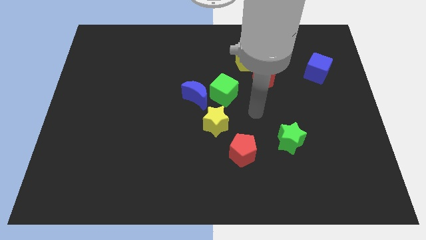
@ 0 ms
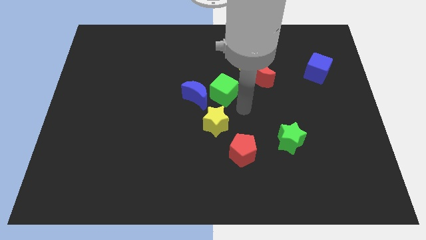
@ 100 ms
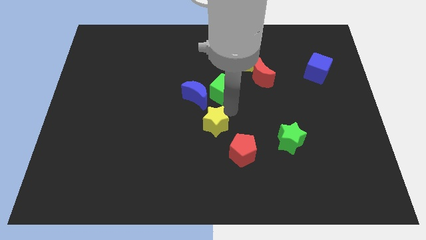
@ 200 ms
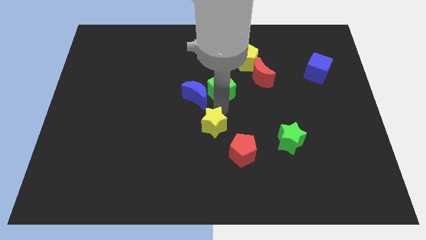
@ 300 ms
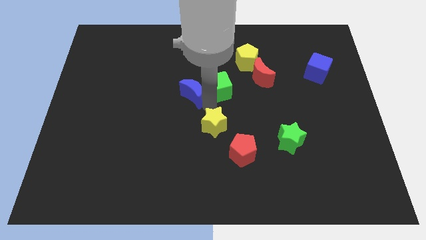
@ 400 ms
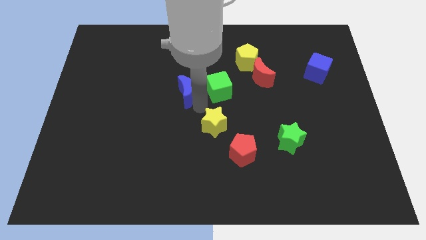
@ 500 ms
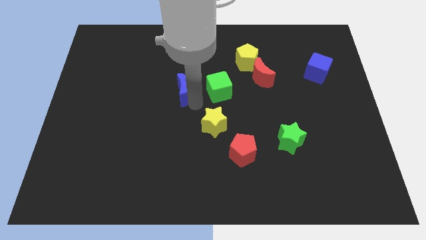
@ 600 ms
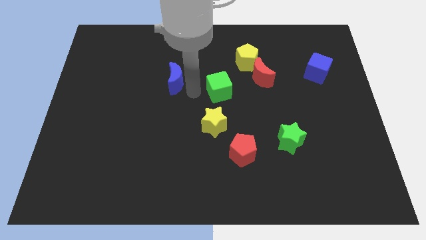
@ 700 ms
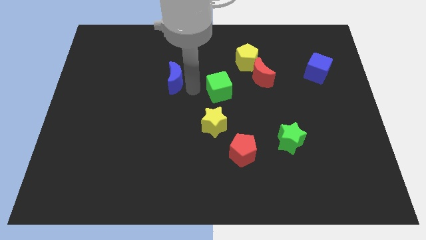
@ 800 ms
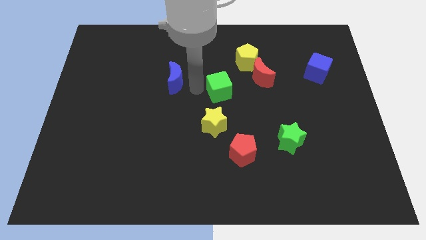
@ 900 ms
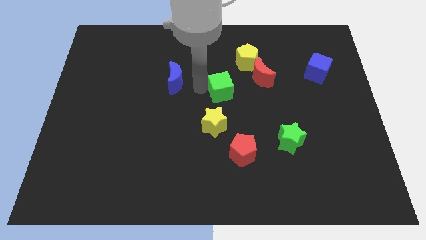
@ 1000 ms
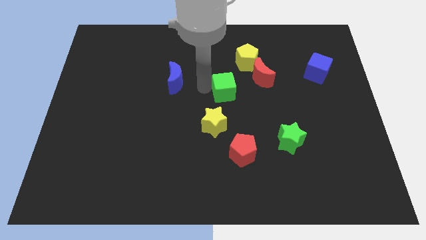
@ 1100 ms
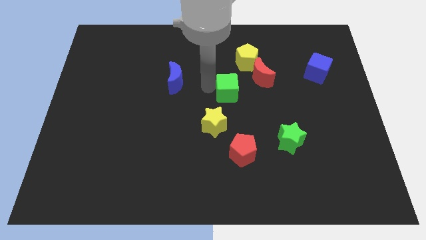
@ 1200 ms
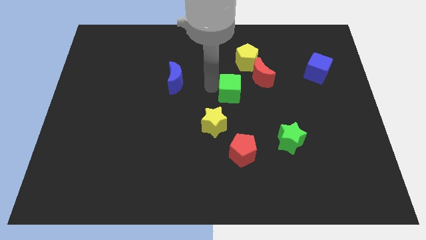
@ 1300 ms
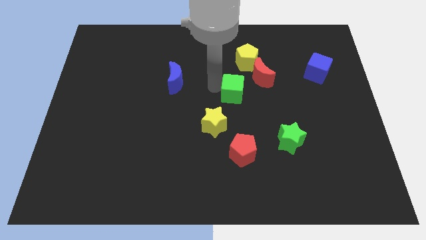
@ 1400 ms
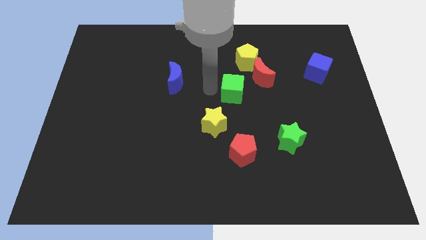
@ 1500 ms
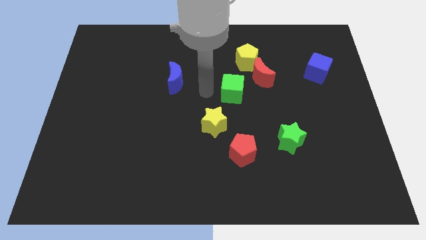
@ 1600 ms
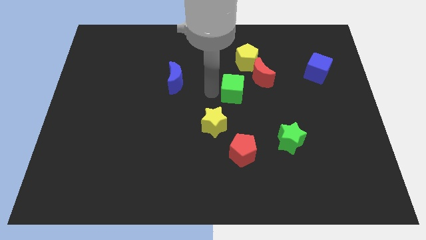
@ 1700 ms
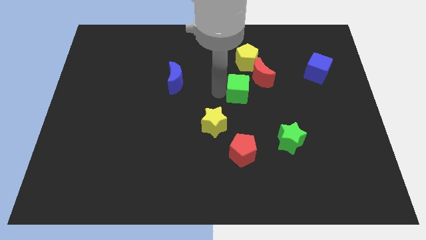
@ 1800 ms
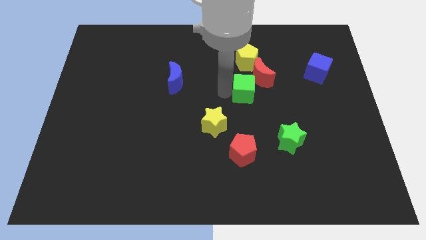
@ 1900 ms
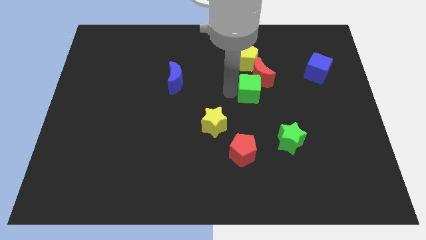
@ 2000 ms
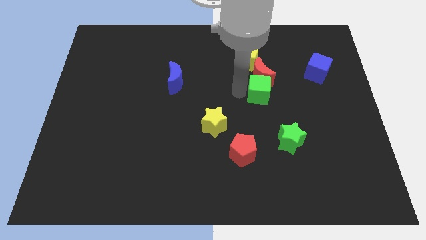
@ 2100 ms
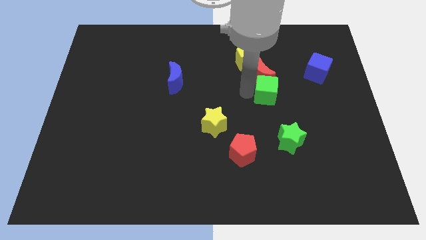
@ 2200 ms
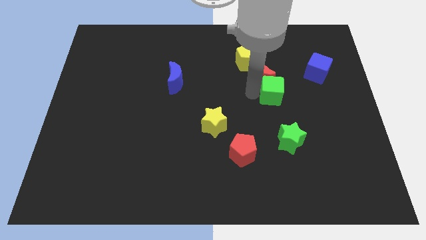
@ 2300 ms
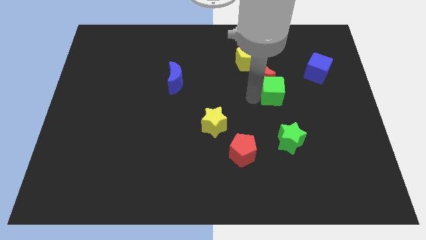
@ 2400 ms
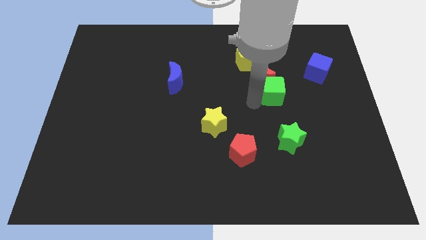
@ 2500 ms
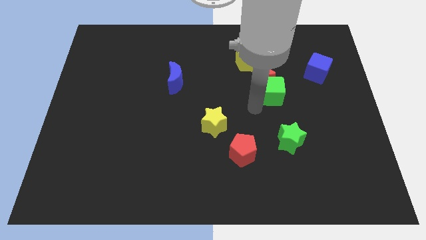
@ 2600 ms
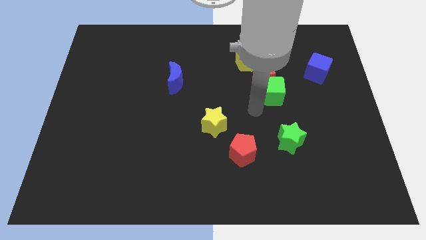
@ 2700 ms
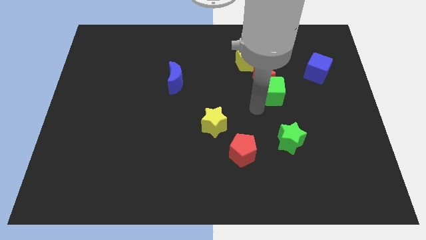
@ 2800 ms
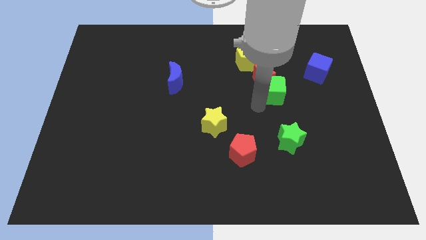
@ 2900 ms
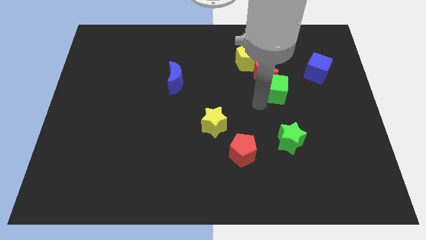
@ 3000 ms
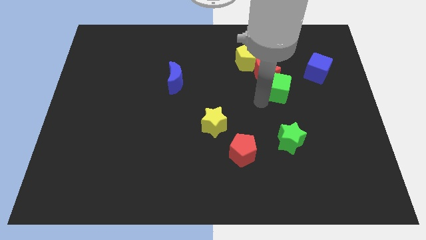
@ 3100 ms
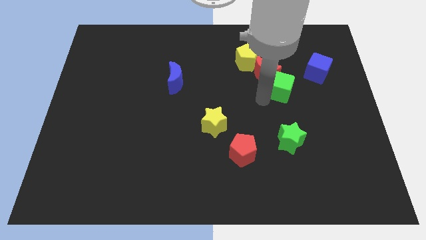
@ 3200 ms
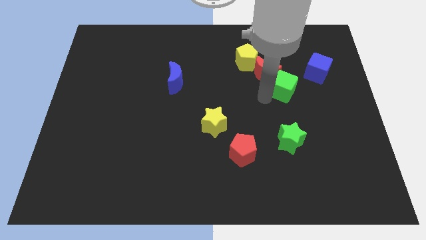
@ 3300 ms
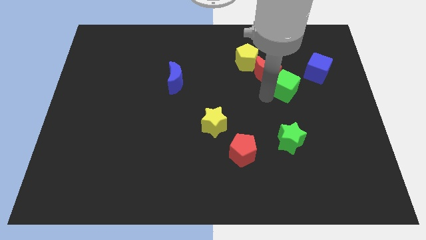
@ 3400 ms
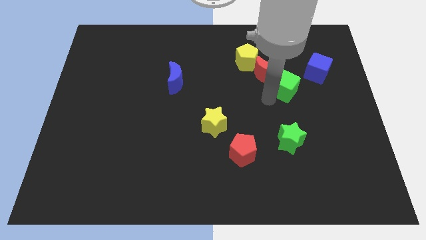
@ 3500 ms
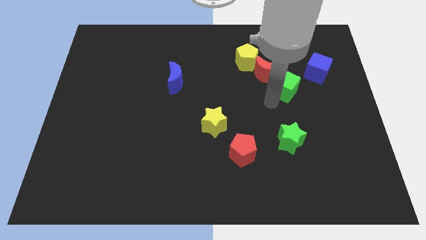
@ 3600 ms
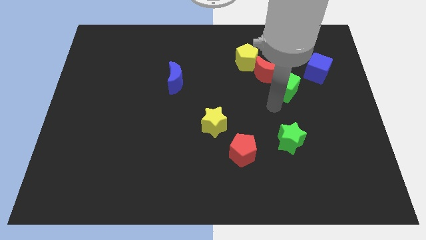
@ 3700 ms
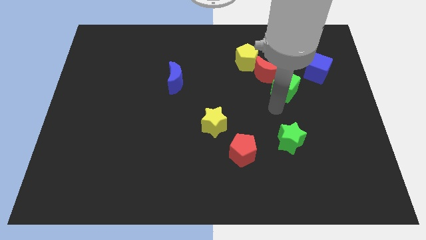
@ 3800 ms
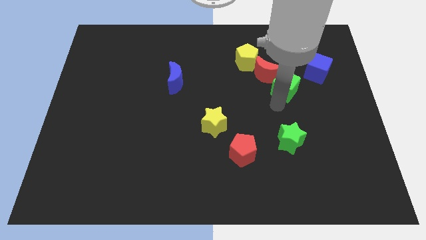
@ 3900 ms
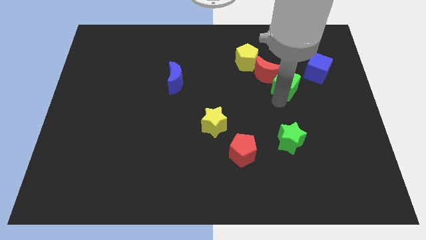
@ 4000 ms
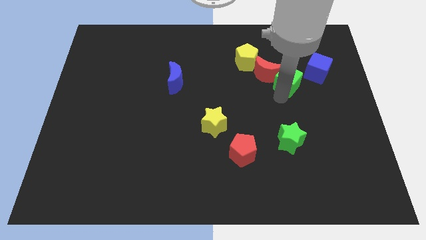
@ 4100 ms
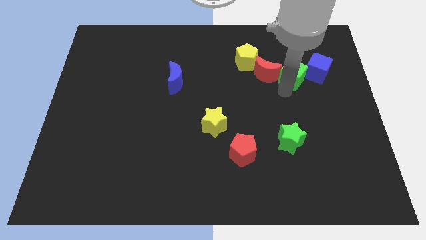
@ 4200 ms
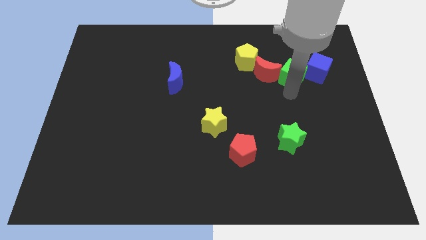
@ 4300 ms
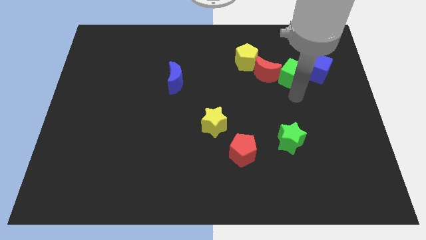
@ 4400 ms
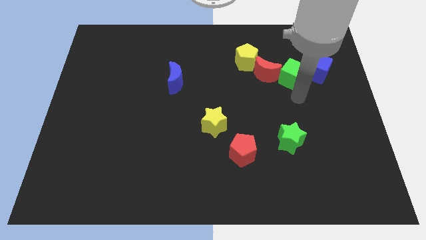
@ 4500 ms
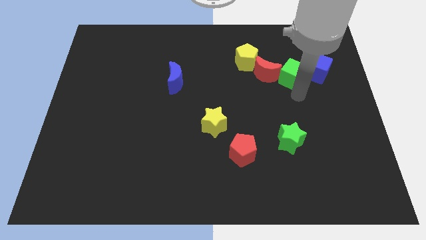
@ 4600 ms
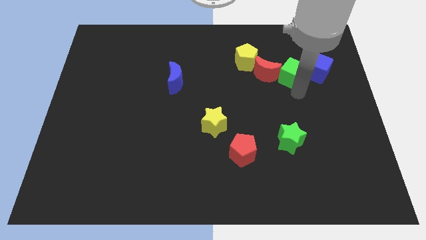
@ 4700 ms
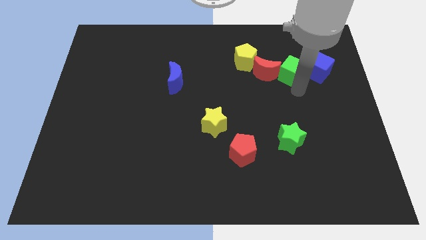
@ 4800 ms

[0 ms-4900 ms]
put the green cube right of the yellow pentagon

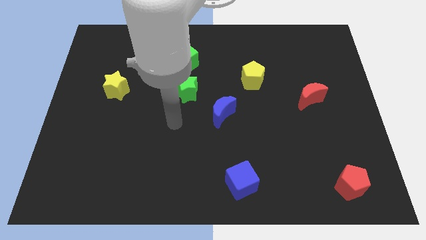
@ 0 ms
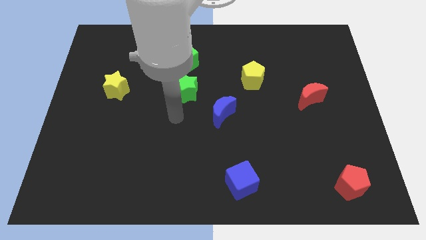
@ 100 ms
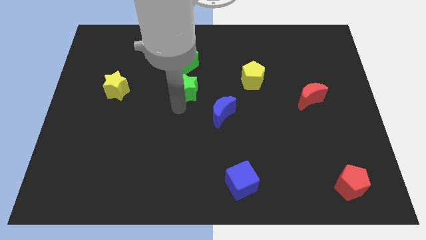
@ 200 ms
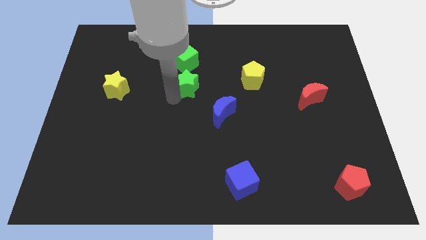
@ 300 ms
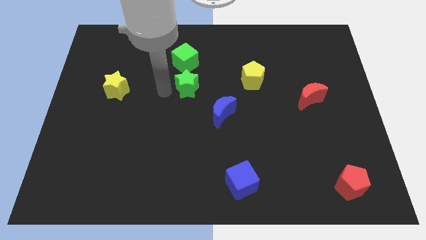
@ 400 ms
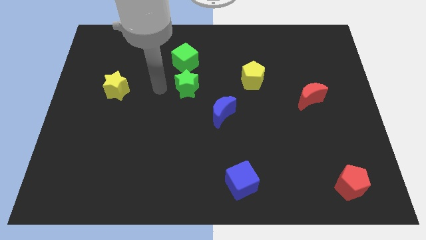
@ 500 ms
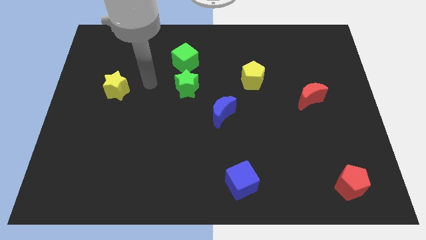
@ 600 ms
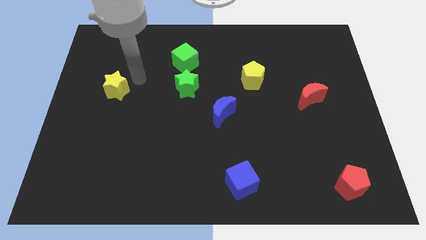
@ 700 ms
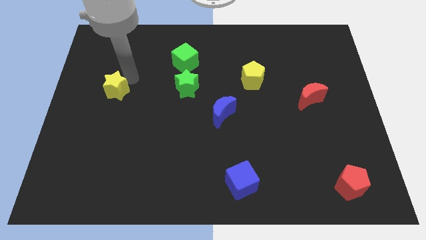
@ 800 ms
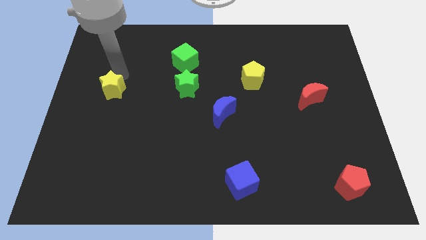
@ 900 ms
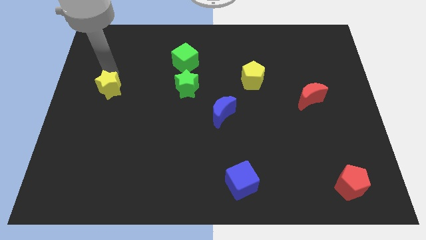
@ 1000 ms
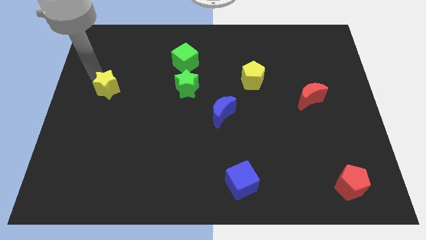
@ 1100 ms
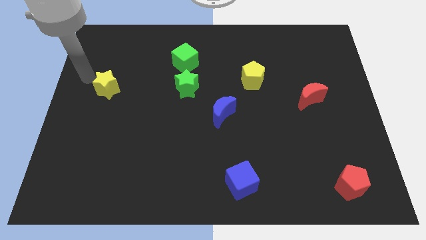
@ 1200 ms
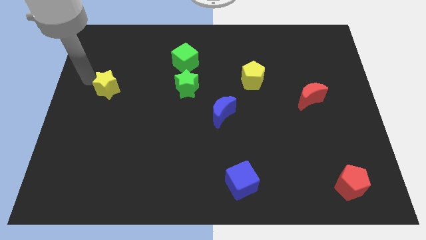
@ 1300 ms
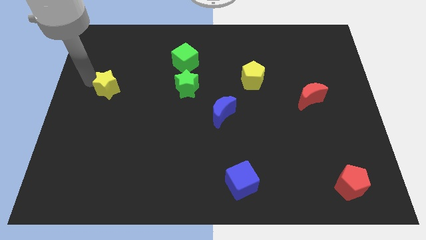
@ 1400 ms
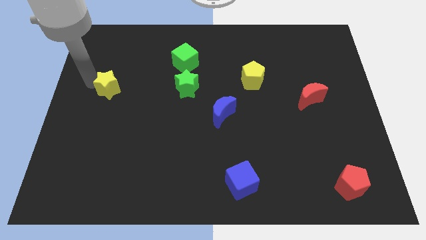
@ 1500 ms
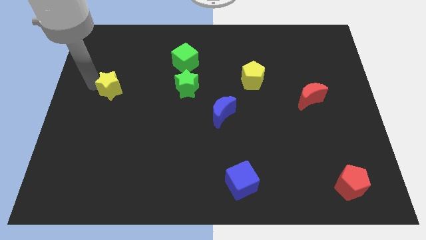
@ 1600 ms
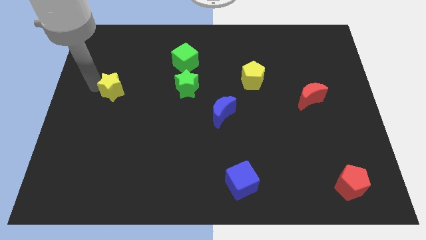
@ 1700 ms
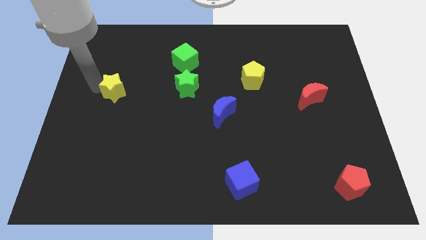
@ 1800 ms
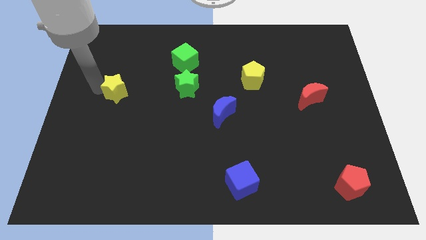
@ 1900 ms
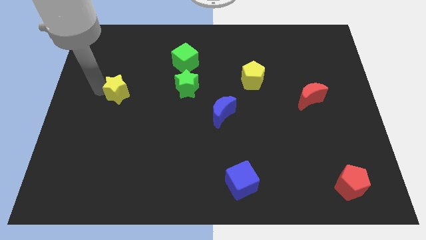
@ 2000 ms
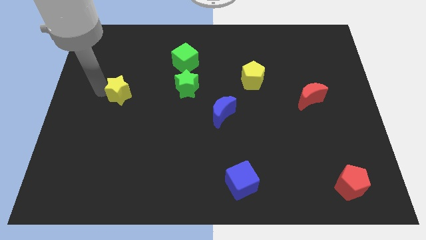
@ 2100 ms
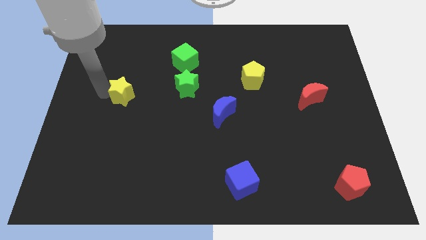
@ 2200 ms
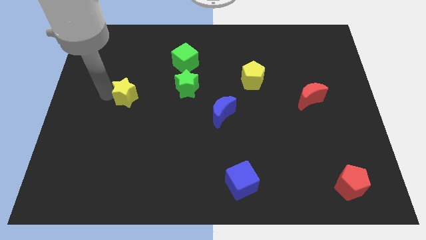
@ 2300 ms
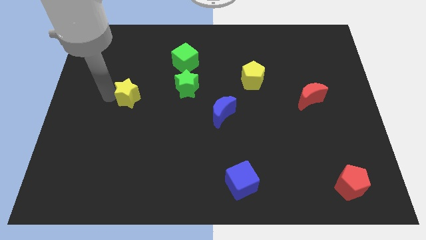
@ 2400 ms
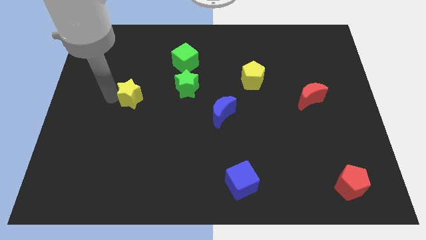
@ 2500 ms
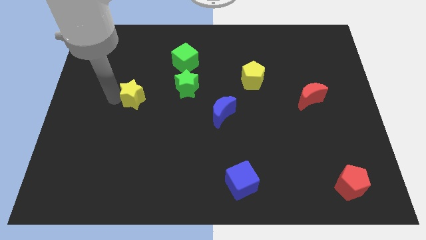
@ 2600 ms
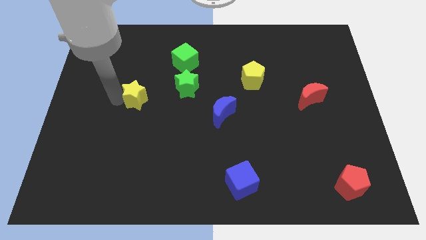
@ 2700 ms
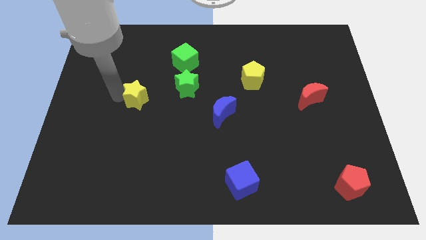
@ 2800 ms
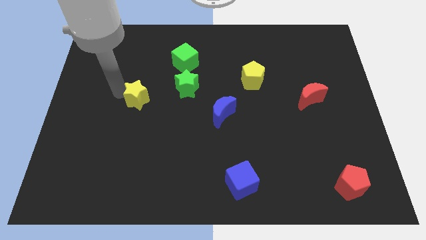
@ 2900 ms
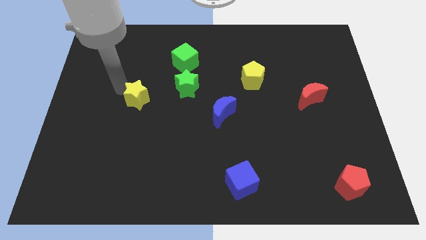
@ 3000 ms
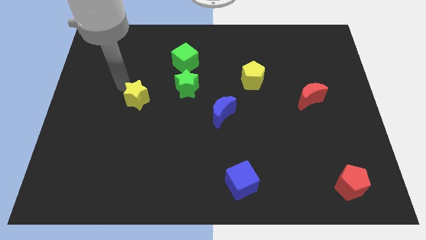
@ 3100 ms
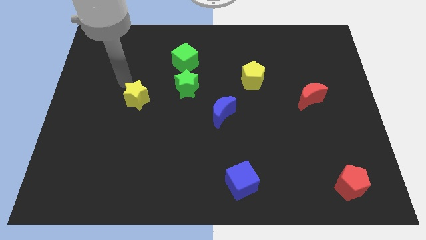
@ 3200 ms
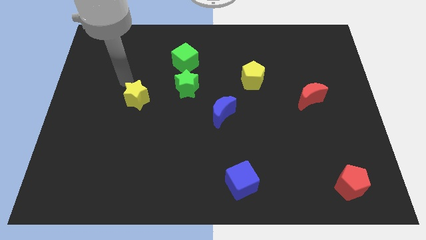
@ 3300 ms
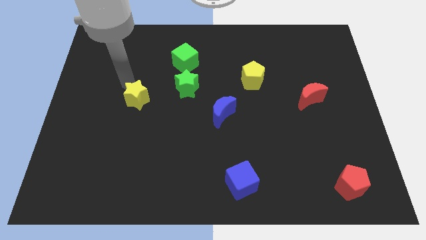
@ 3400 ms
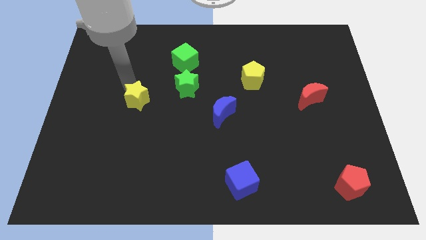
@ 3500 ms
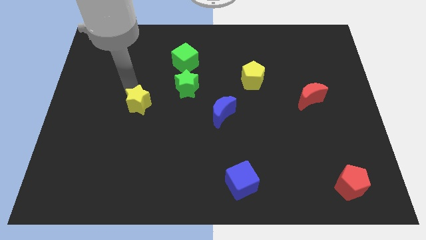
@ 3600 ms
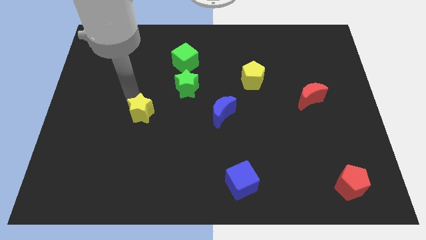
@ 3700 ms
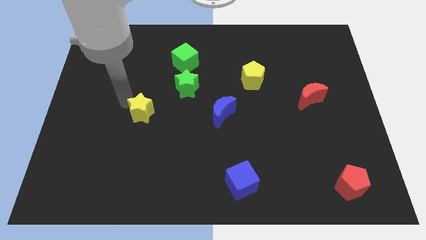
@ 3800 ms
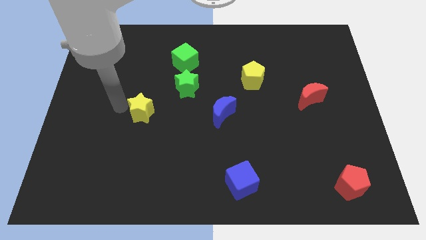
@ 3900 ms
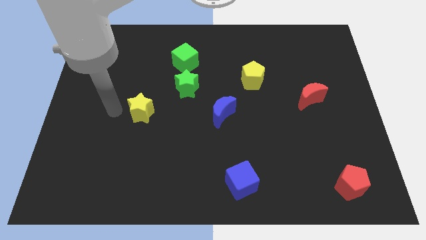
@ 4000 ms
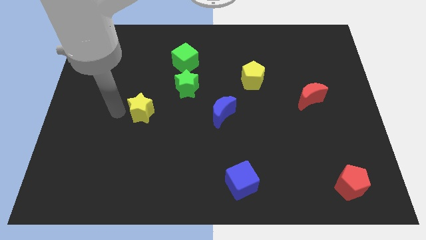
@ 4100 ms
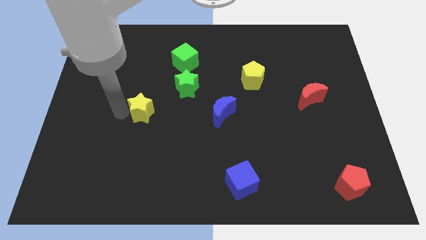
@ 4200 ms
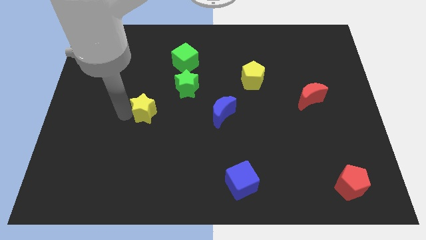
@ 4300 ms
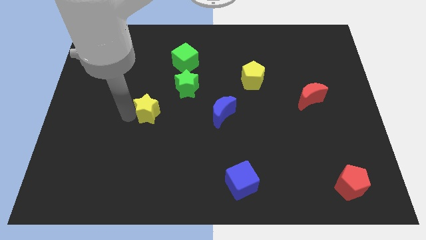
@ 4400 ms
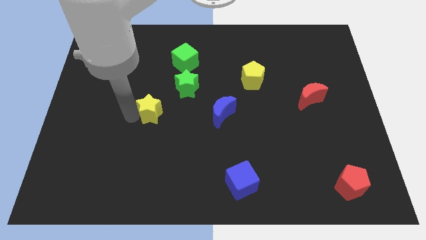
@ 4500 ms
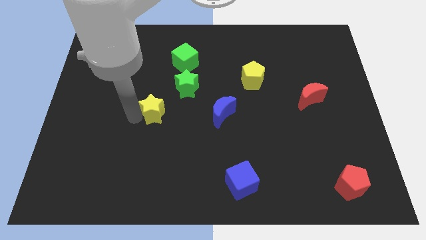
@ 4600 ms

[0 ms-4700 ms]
slide the yellow star left of the blue moon
